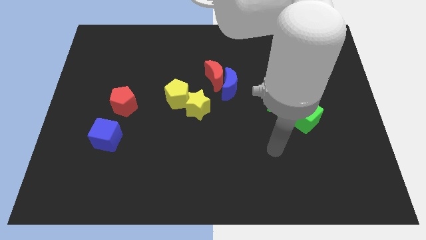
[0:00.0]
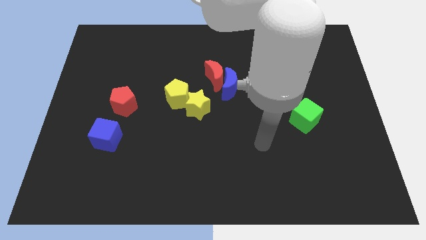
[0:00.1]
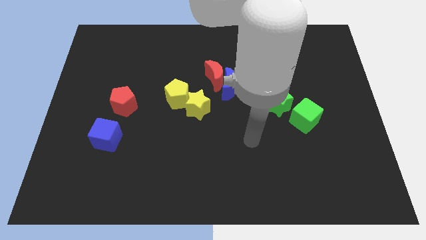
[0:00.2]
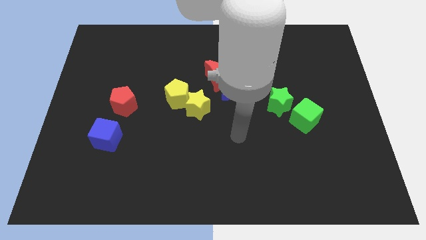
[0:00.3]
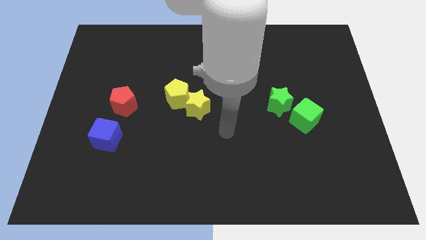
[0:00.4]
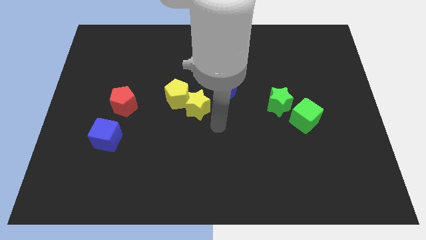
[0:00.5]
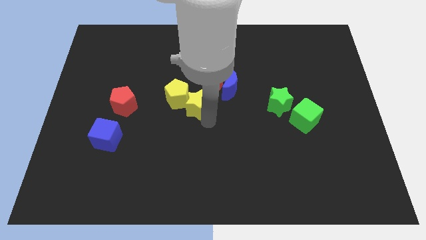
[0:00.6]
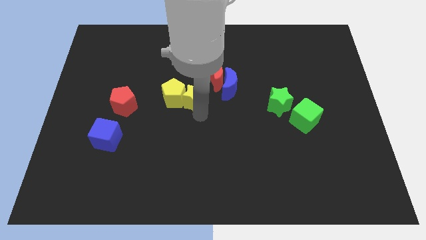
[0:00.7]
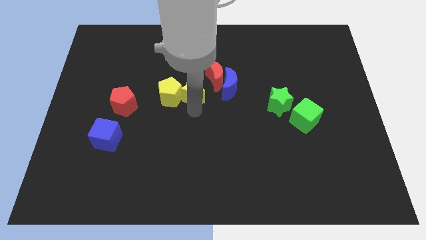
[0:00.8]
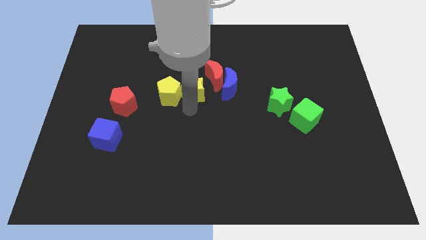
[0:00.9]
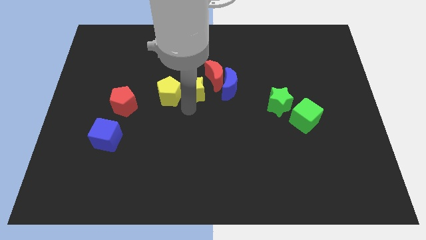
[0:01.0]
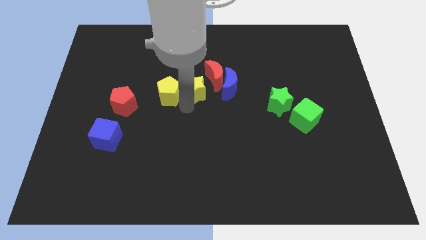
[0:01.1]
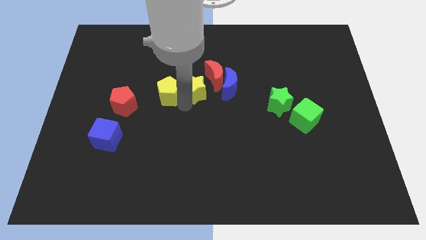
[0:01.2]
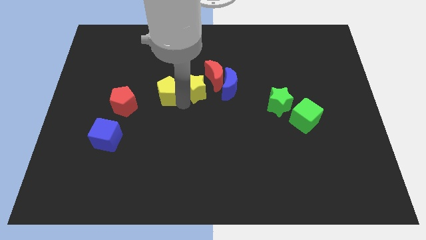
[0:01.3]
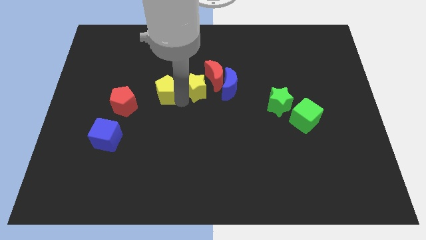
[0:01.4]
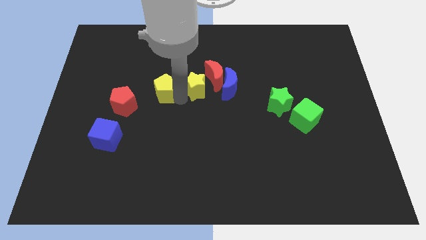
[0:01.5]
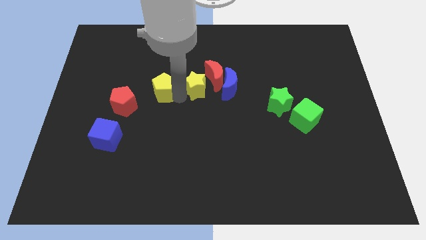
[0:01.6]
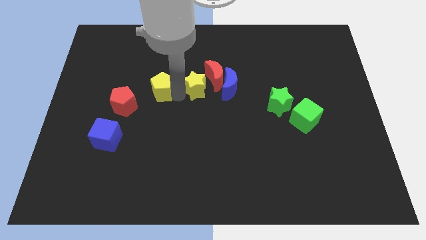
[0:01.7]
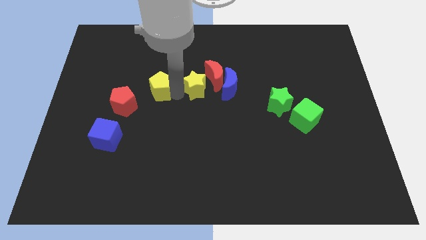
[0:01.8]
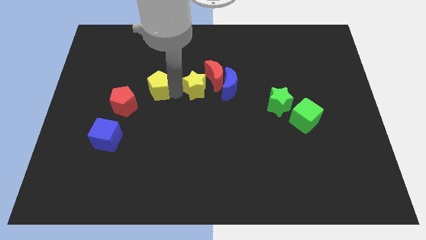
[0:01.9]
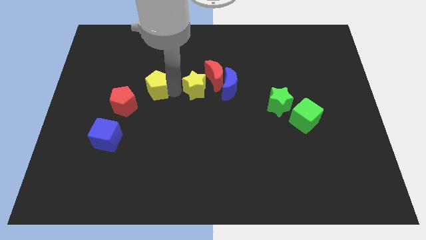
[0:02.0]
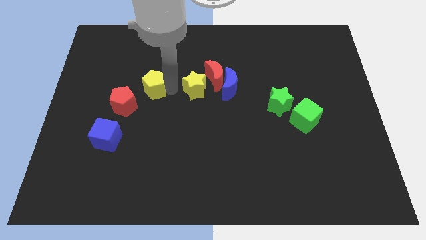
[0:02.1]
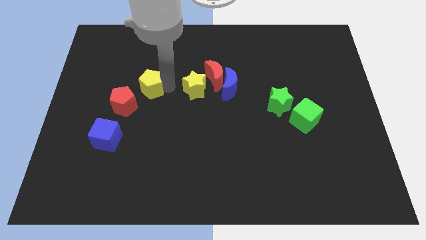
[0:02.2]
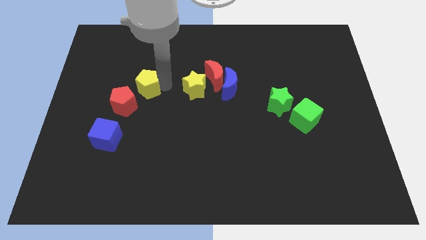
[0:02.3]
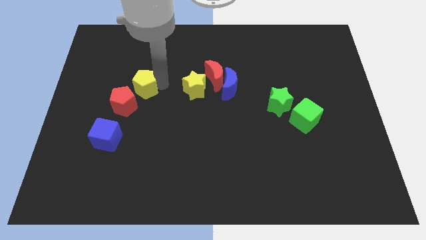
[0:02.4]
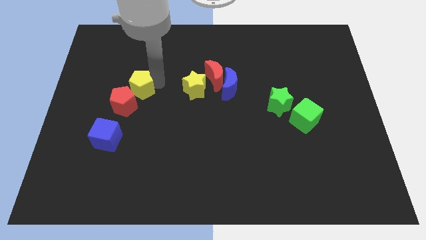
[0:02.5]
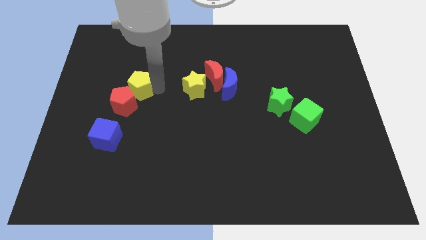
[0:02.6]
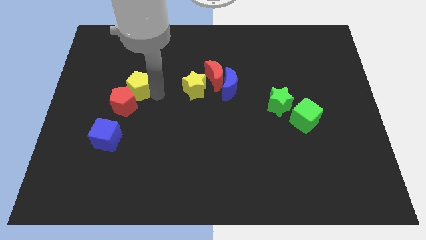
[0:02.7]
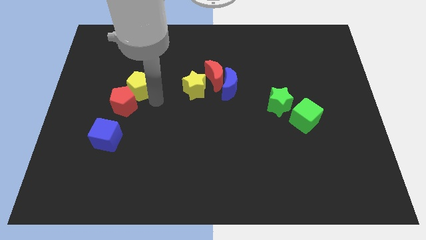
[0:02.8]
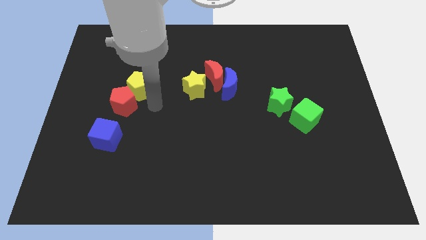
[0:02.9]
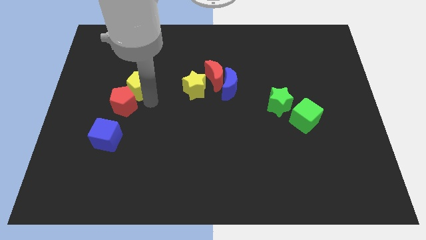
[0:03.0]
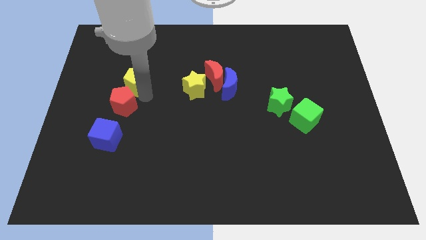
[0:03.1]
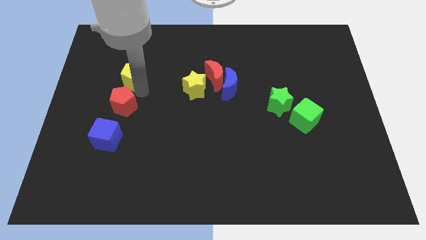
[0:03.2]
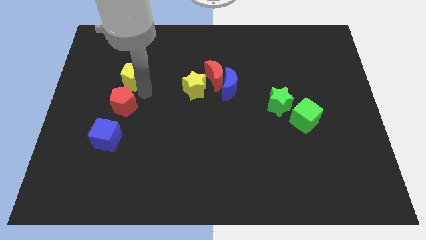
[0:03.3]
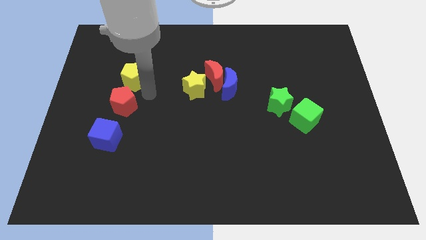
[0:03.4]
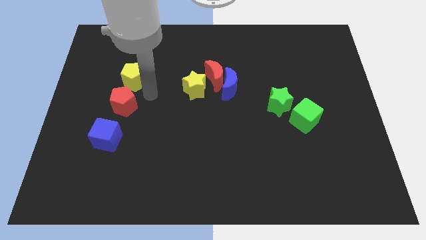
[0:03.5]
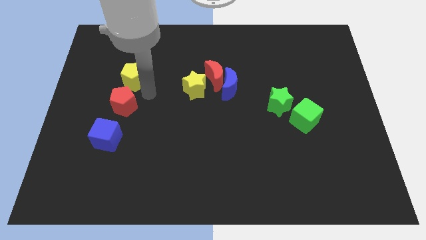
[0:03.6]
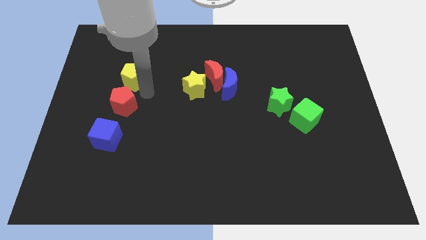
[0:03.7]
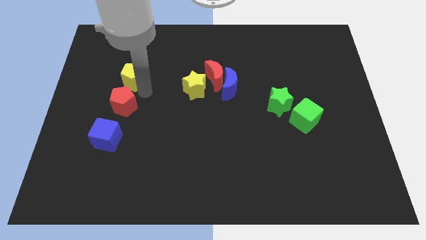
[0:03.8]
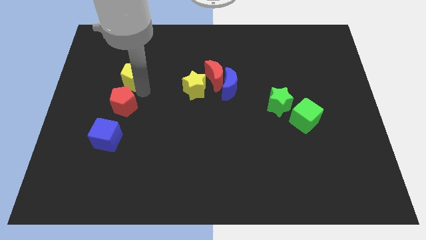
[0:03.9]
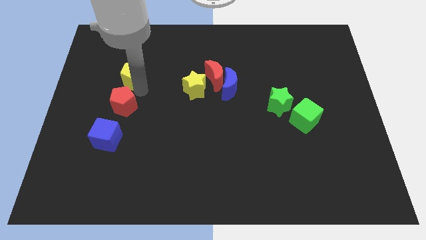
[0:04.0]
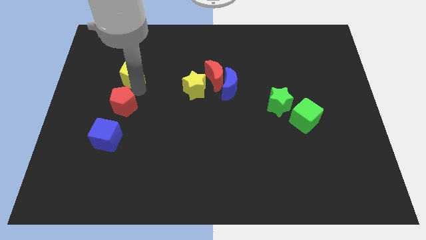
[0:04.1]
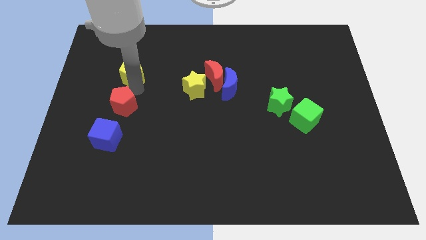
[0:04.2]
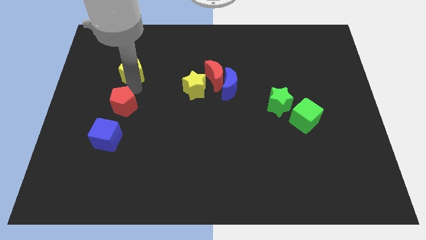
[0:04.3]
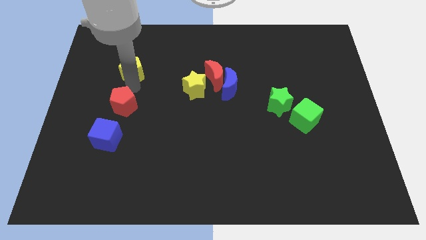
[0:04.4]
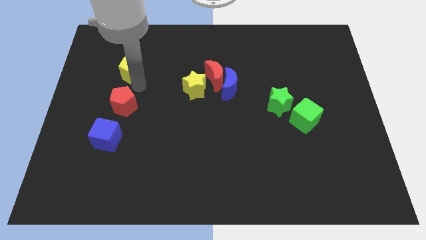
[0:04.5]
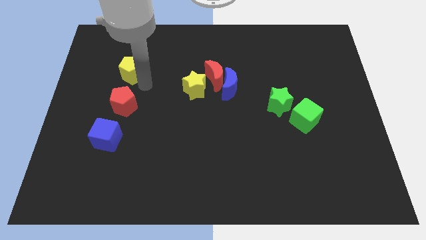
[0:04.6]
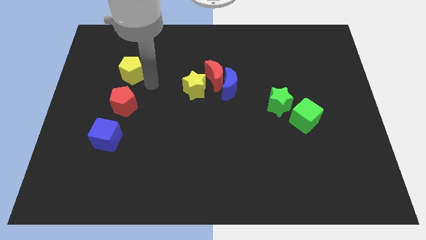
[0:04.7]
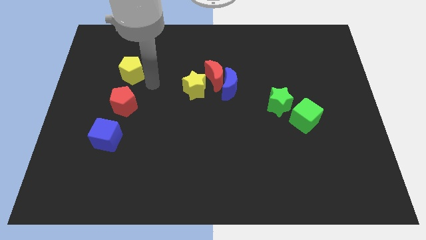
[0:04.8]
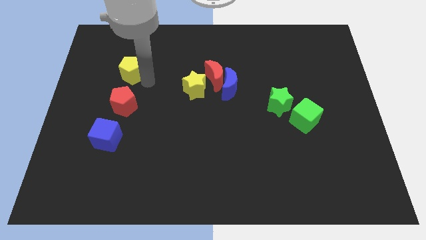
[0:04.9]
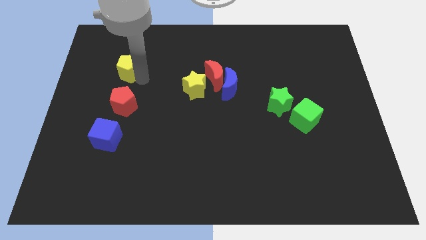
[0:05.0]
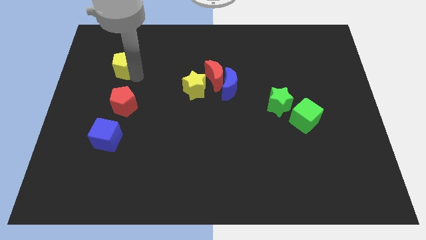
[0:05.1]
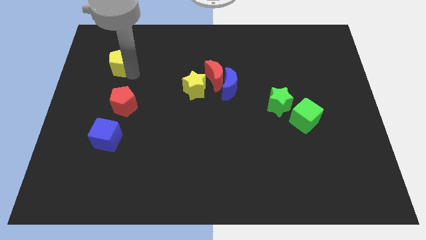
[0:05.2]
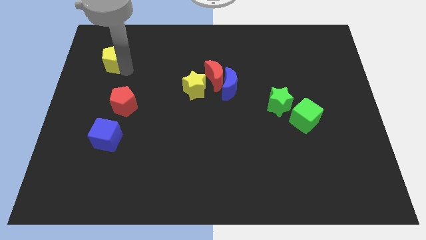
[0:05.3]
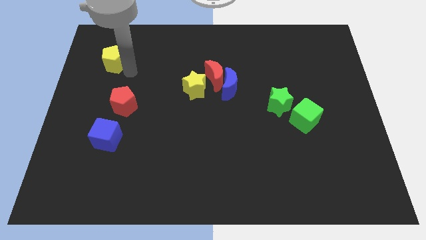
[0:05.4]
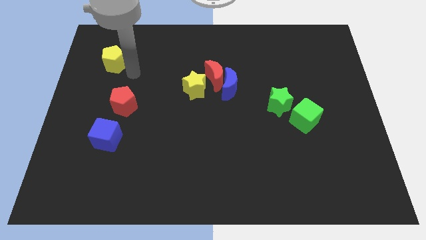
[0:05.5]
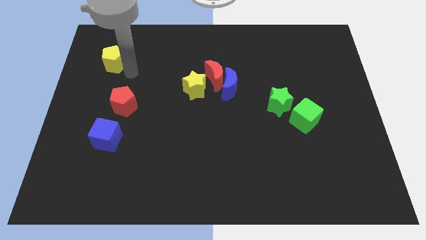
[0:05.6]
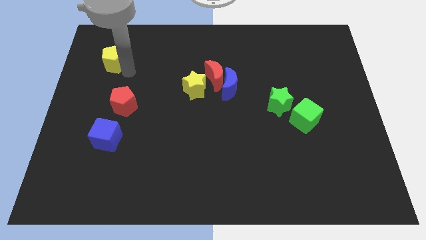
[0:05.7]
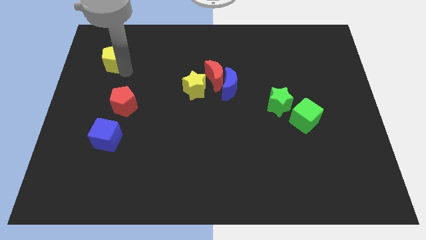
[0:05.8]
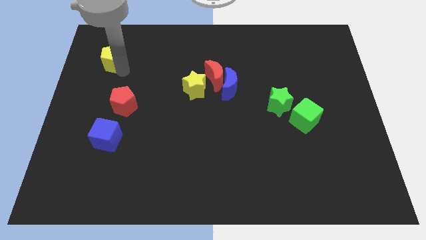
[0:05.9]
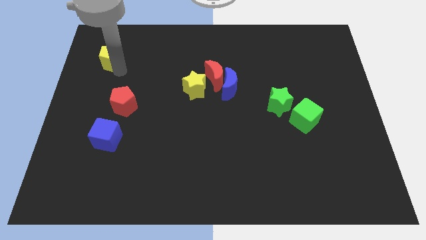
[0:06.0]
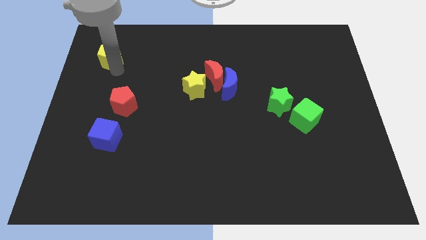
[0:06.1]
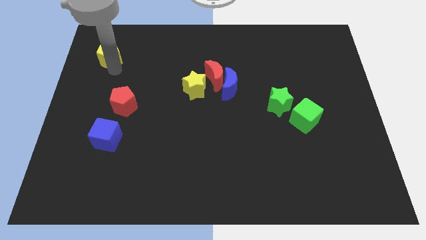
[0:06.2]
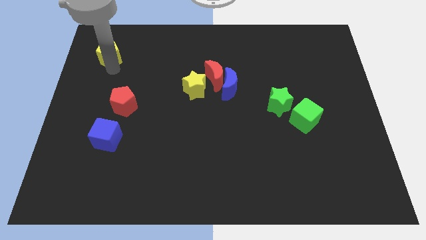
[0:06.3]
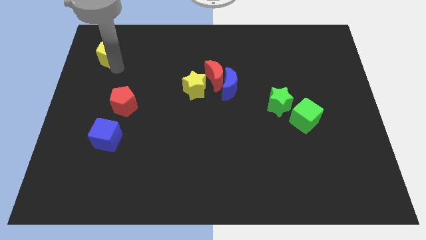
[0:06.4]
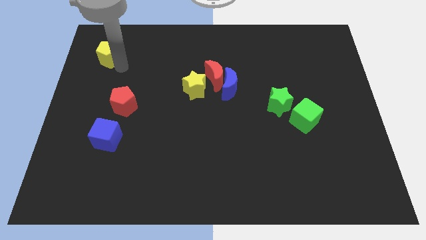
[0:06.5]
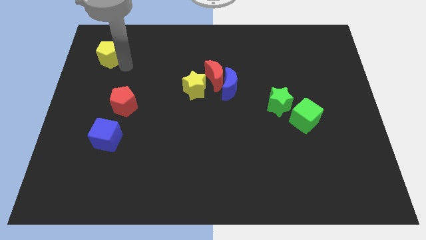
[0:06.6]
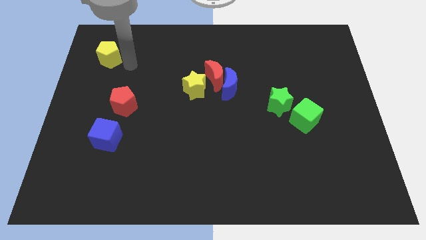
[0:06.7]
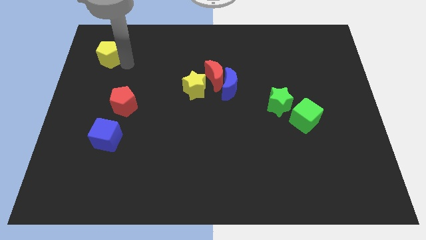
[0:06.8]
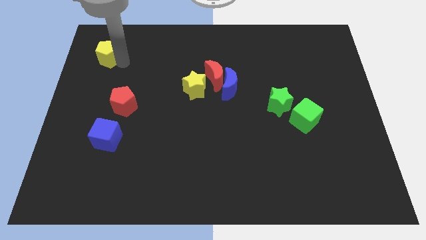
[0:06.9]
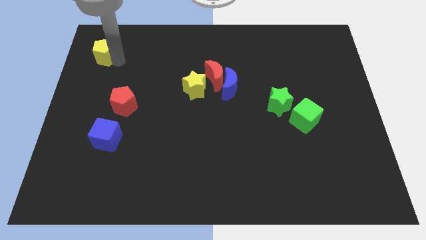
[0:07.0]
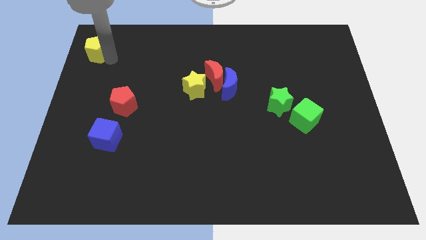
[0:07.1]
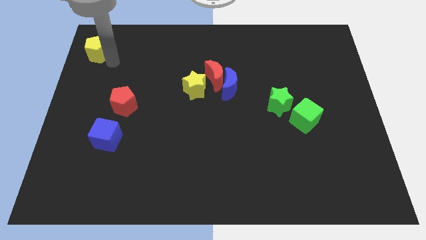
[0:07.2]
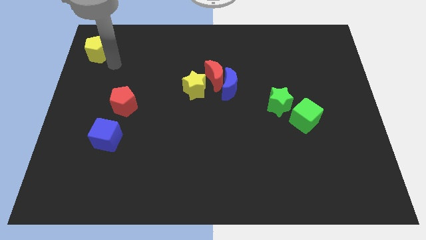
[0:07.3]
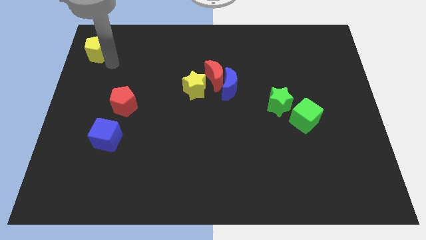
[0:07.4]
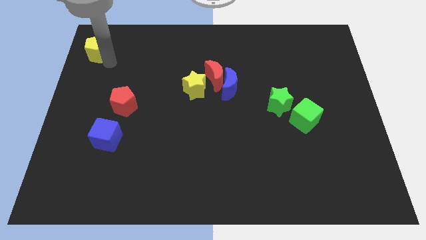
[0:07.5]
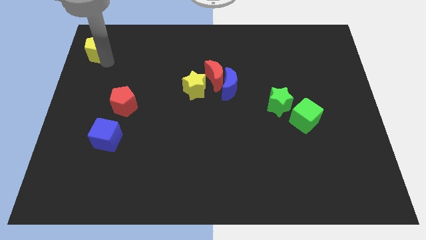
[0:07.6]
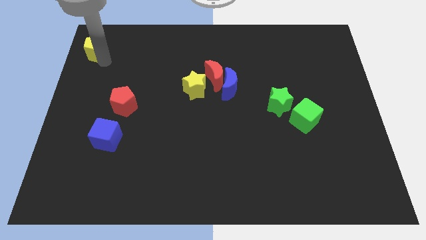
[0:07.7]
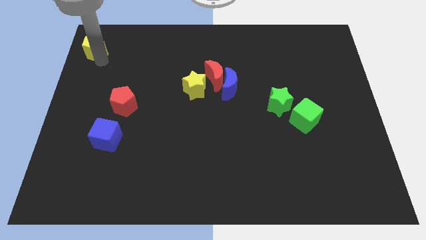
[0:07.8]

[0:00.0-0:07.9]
slide the yellow pentagon to the top left of the board
